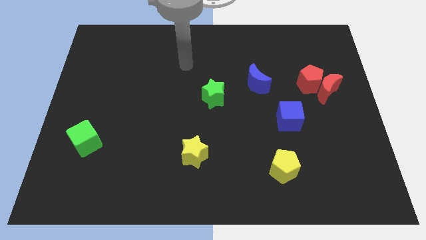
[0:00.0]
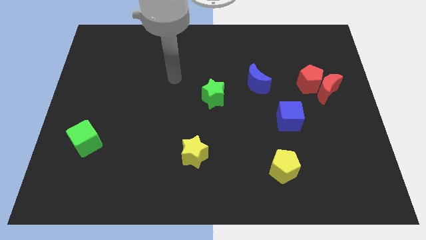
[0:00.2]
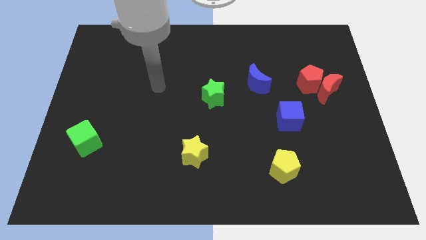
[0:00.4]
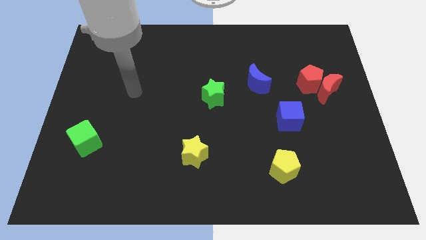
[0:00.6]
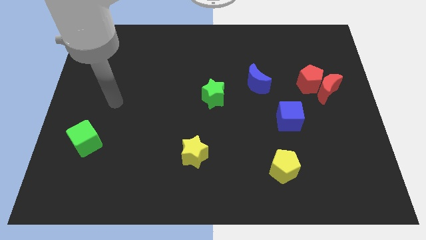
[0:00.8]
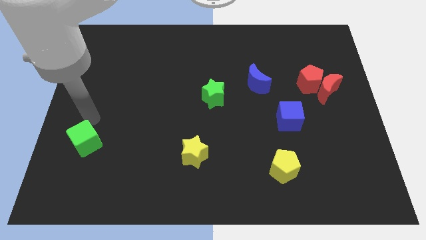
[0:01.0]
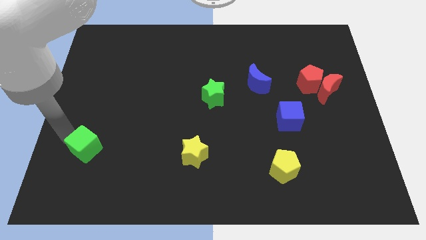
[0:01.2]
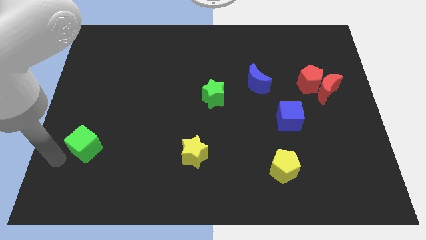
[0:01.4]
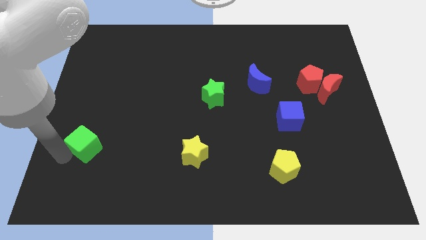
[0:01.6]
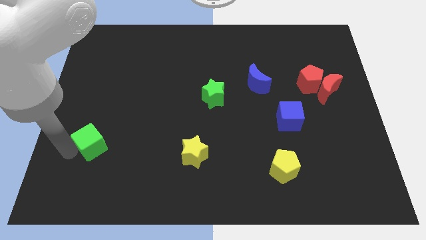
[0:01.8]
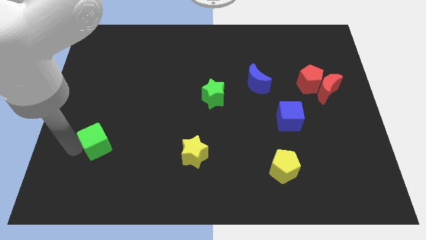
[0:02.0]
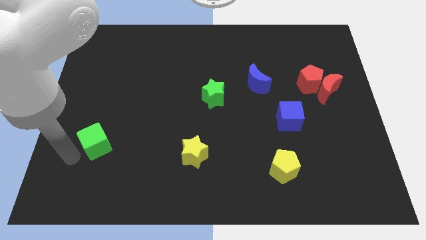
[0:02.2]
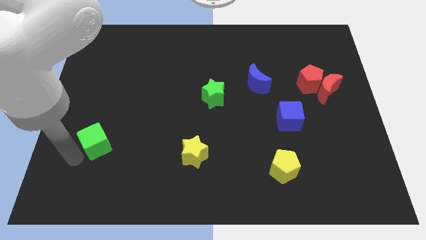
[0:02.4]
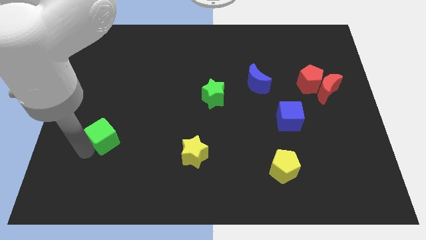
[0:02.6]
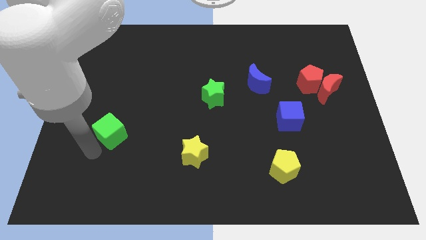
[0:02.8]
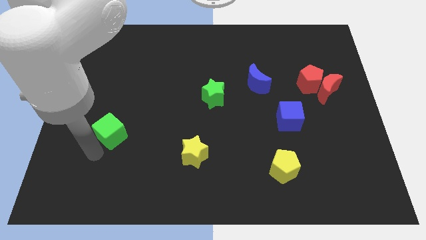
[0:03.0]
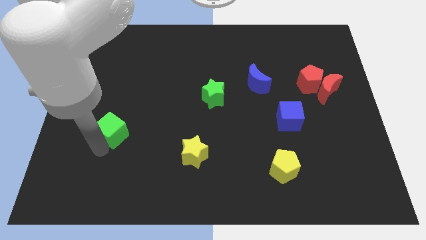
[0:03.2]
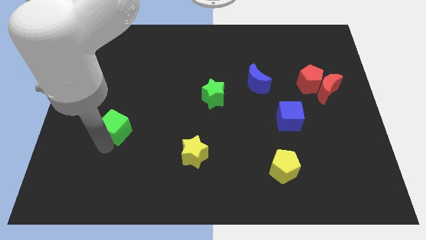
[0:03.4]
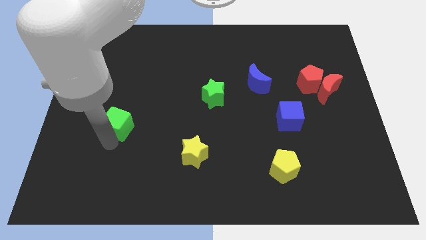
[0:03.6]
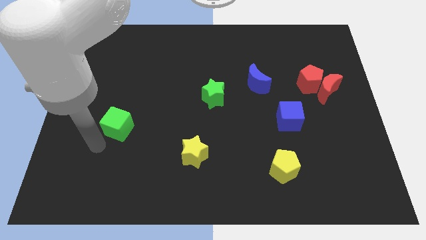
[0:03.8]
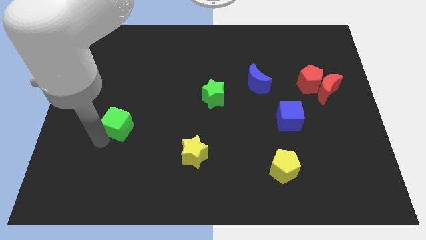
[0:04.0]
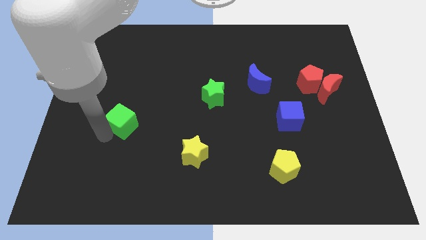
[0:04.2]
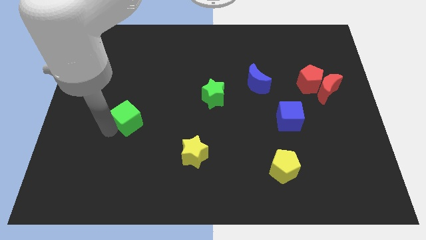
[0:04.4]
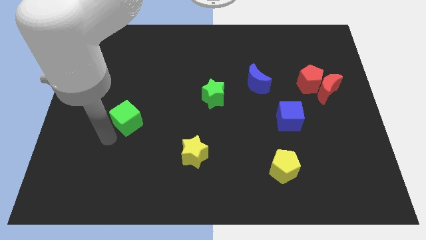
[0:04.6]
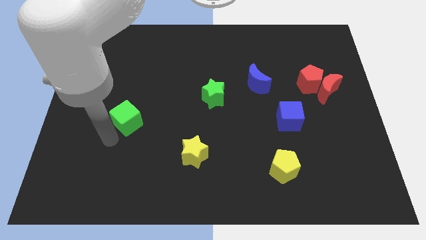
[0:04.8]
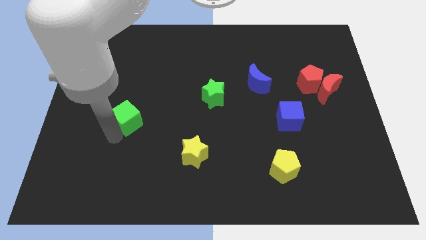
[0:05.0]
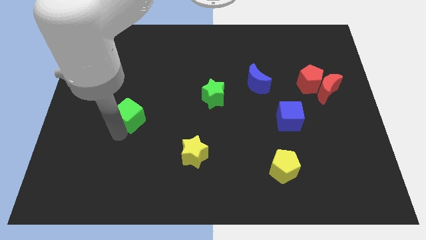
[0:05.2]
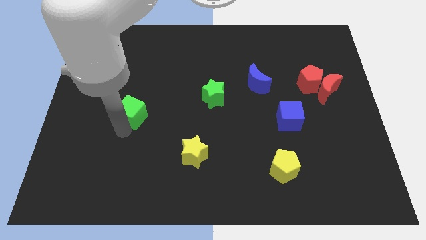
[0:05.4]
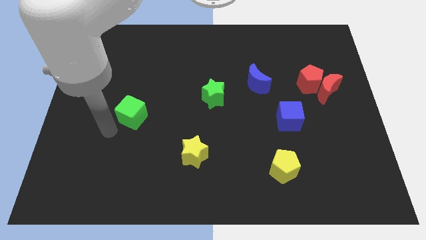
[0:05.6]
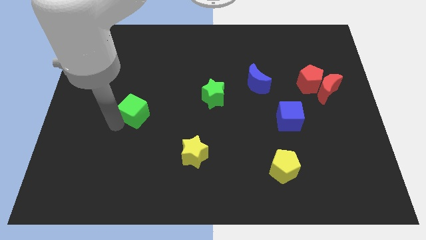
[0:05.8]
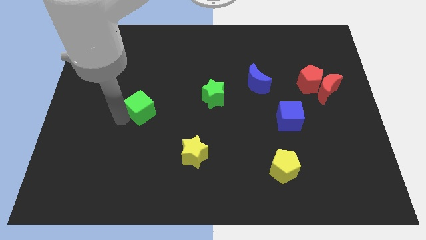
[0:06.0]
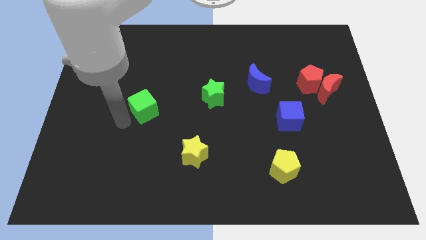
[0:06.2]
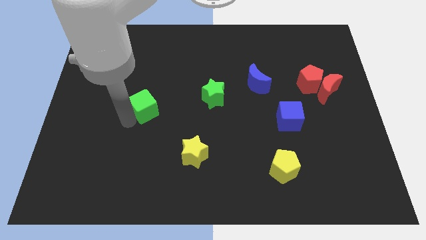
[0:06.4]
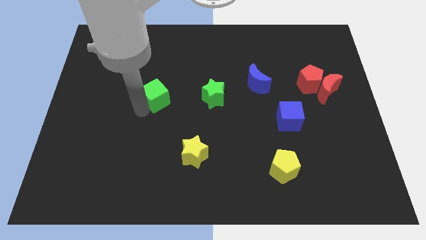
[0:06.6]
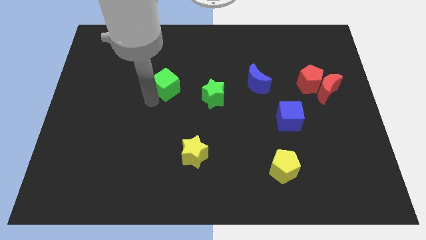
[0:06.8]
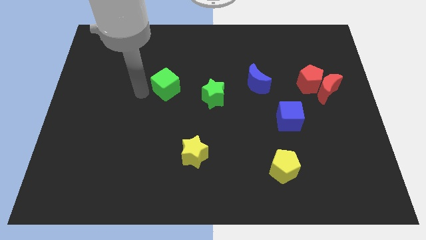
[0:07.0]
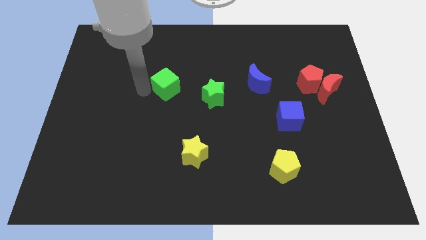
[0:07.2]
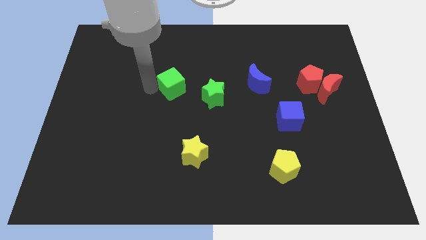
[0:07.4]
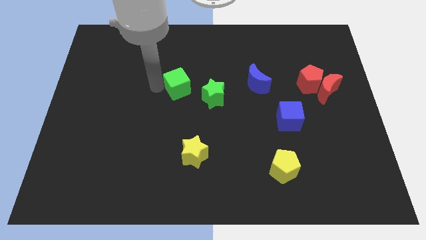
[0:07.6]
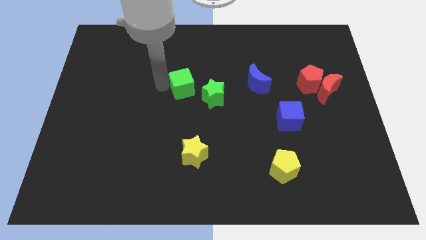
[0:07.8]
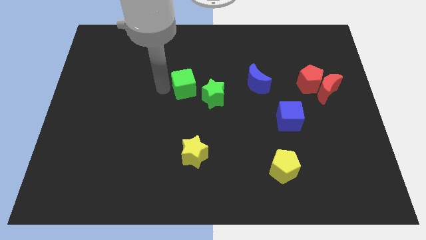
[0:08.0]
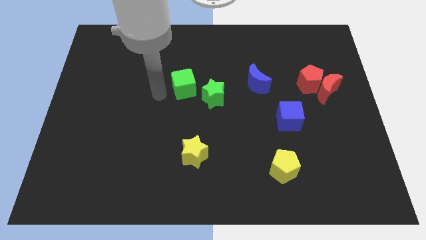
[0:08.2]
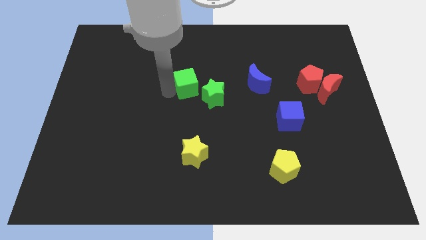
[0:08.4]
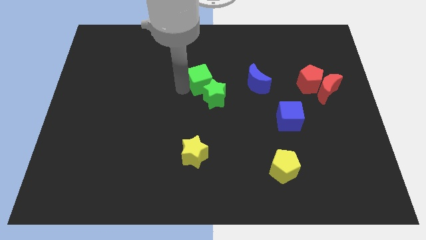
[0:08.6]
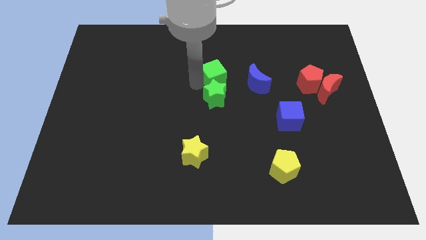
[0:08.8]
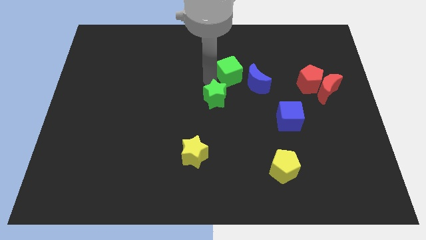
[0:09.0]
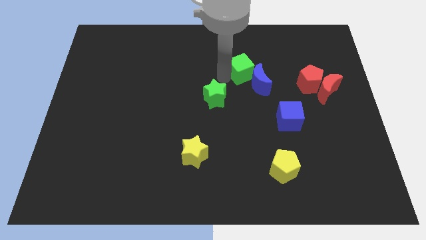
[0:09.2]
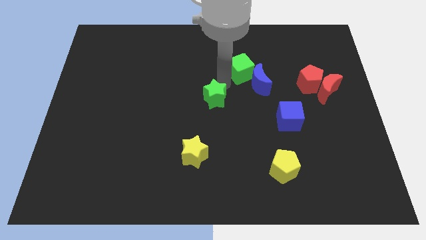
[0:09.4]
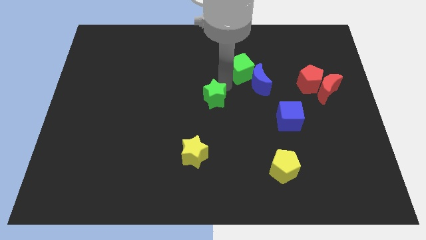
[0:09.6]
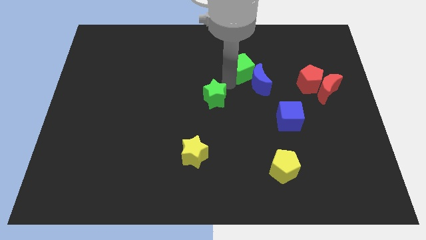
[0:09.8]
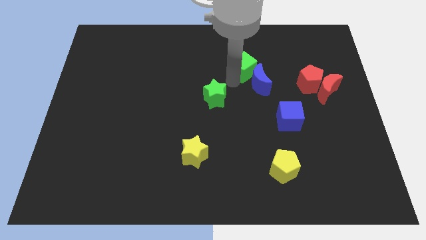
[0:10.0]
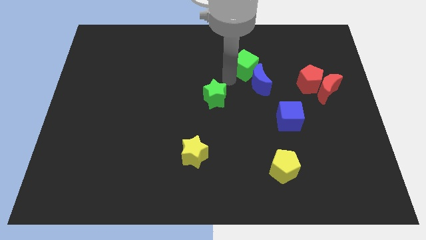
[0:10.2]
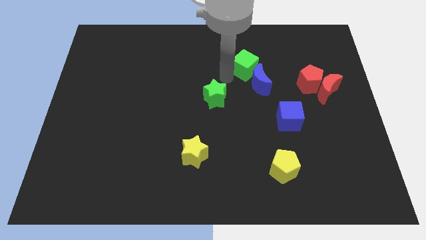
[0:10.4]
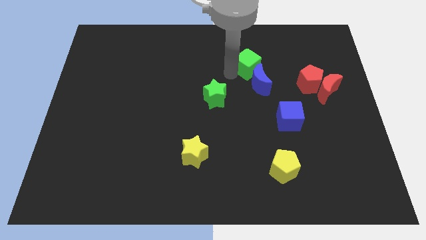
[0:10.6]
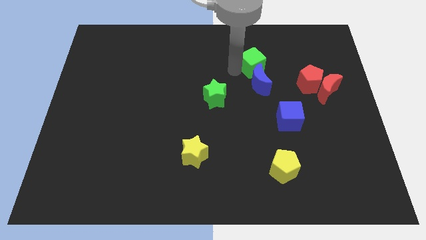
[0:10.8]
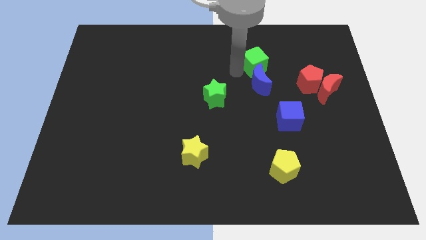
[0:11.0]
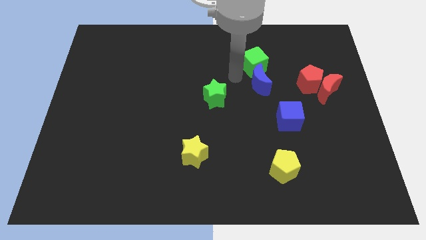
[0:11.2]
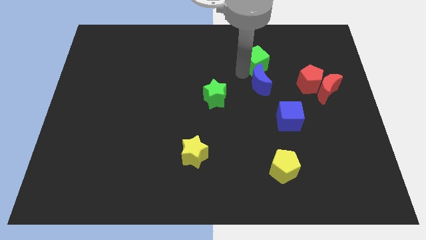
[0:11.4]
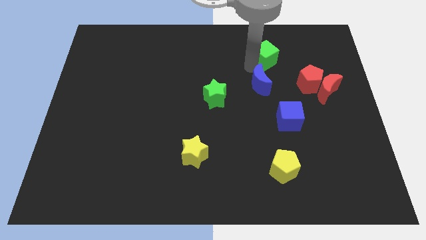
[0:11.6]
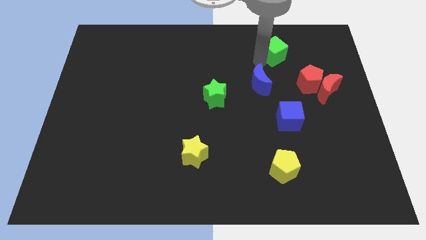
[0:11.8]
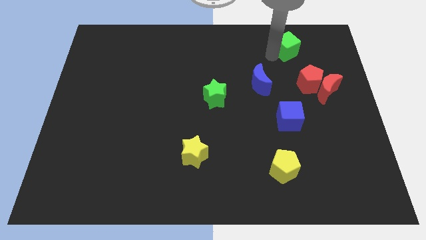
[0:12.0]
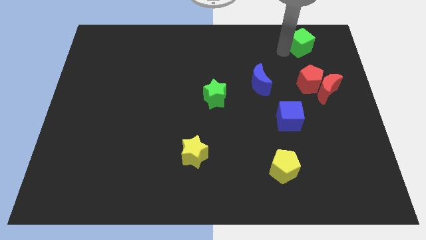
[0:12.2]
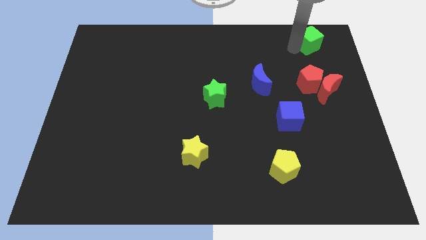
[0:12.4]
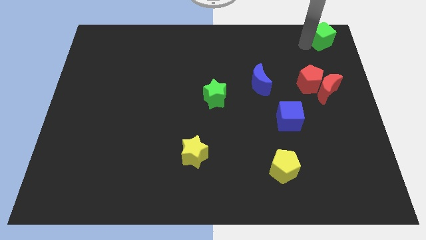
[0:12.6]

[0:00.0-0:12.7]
move the green cube to the top right of the board
